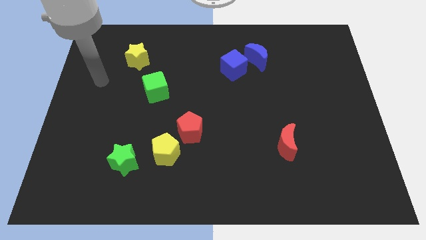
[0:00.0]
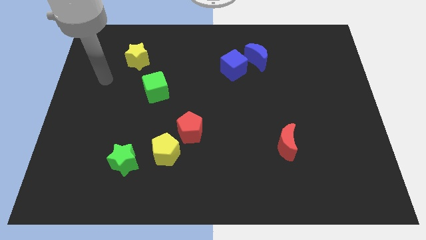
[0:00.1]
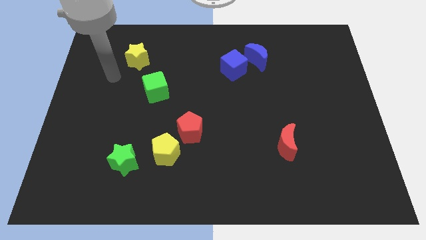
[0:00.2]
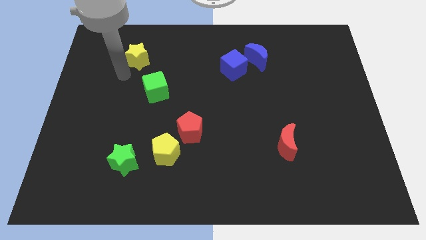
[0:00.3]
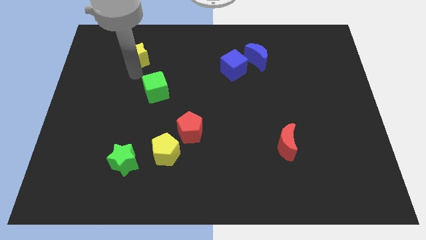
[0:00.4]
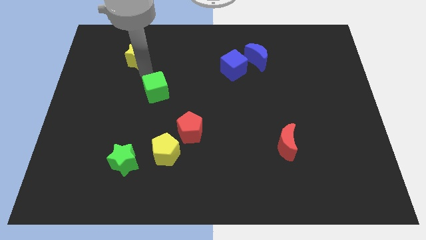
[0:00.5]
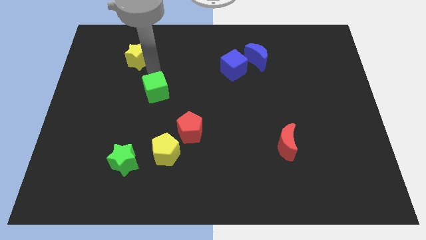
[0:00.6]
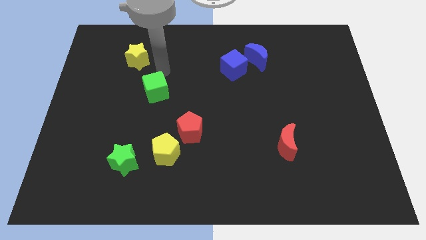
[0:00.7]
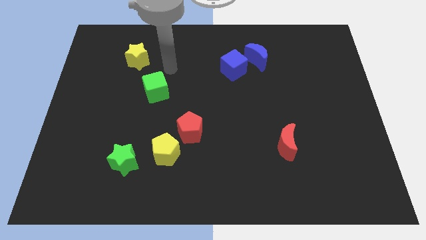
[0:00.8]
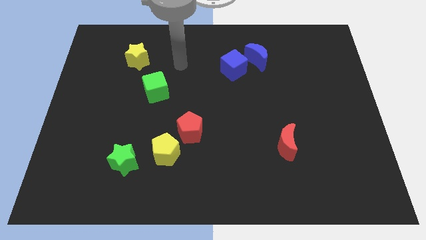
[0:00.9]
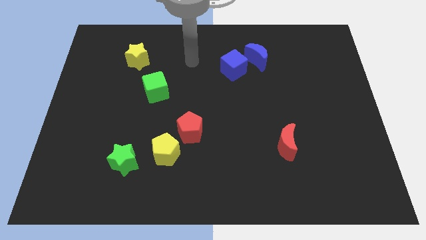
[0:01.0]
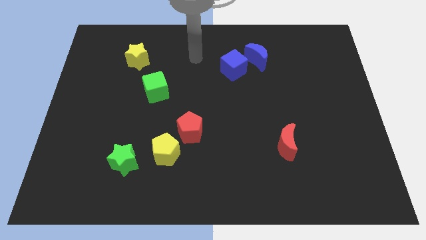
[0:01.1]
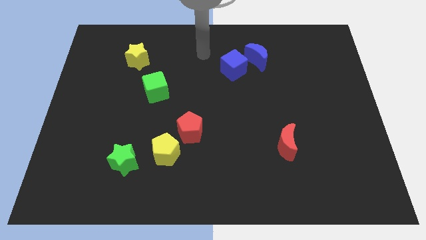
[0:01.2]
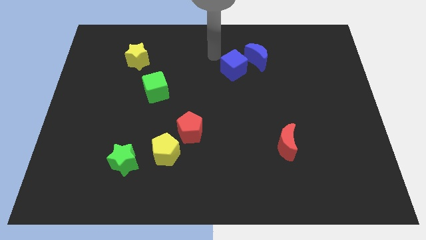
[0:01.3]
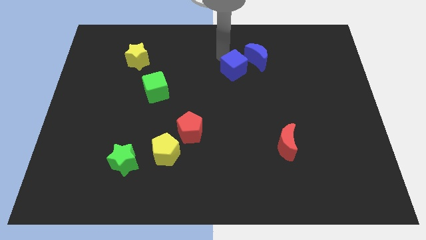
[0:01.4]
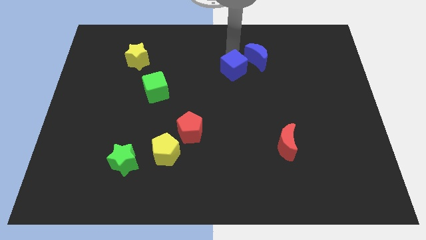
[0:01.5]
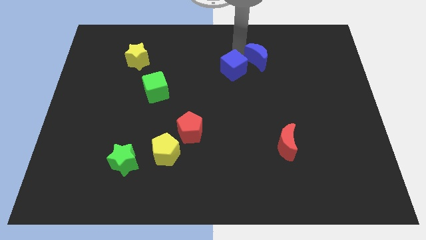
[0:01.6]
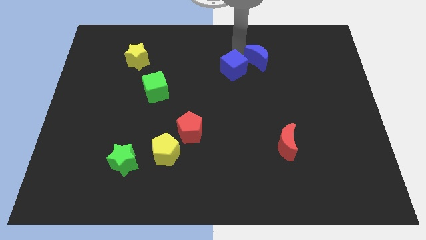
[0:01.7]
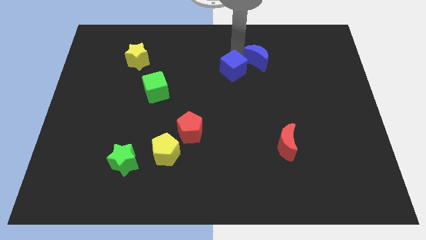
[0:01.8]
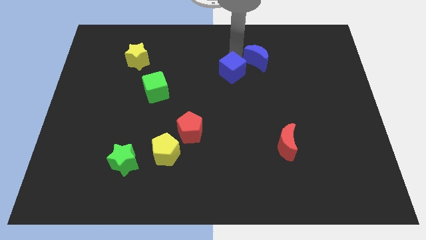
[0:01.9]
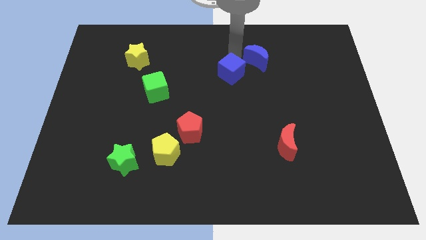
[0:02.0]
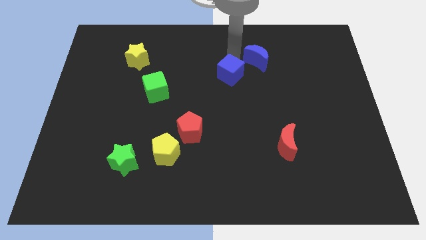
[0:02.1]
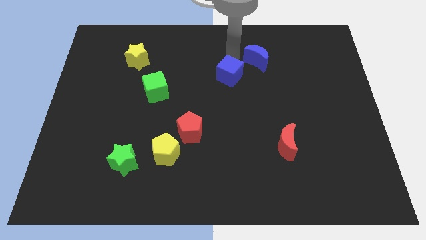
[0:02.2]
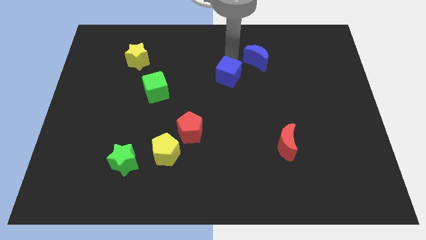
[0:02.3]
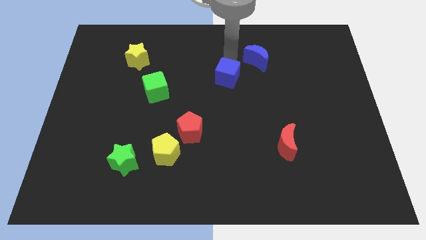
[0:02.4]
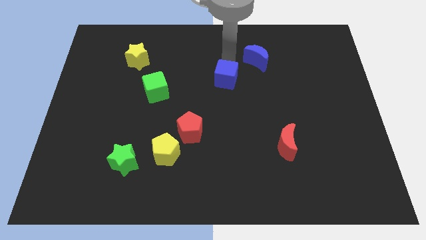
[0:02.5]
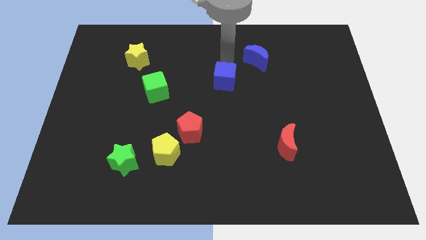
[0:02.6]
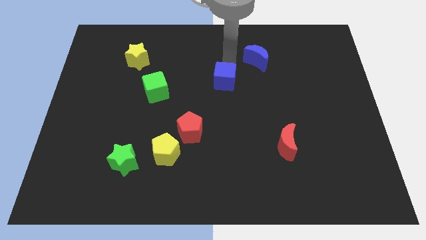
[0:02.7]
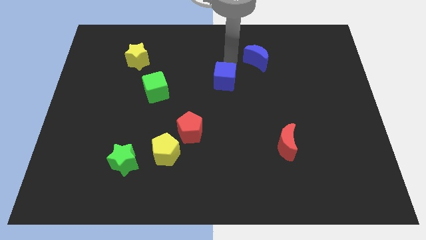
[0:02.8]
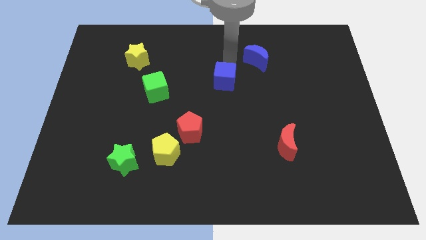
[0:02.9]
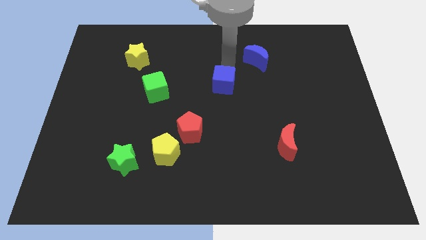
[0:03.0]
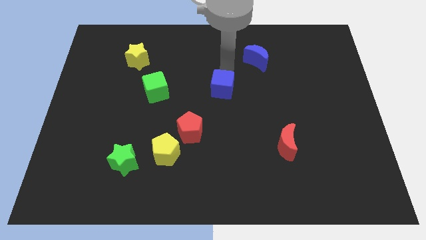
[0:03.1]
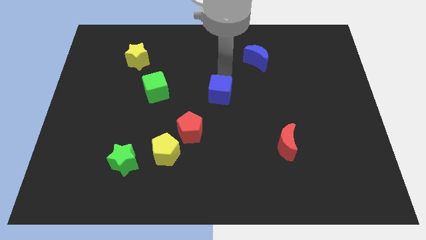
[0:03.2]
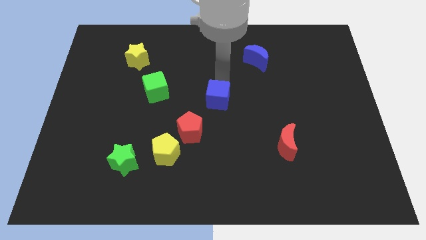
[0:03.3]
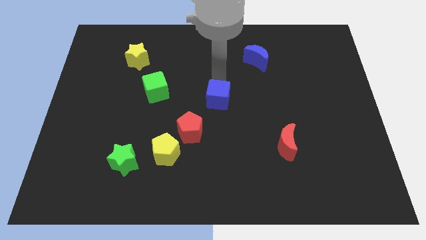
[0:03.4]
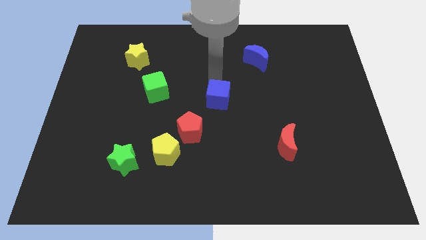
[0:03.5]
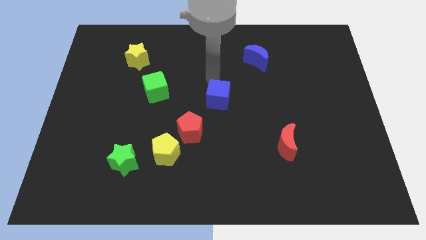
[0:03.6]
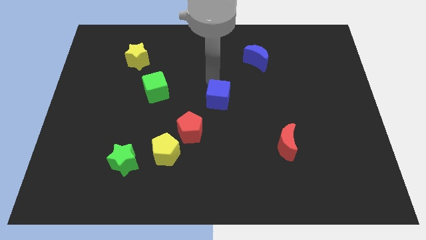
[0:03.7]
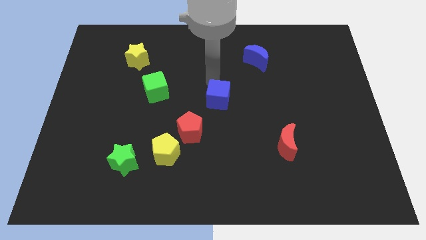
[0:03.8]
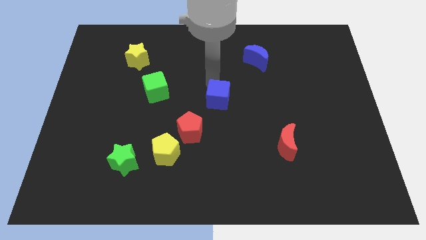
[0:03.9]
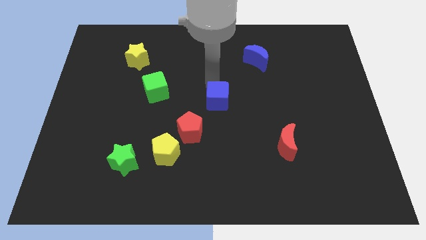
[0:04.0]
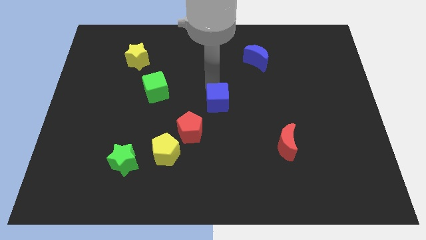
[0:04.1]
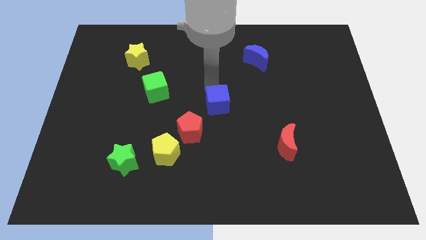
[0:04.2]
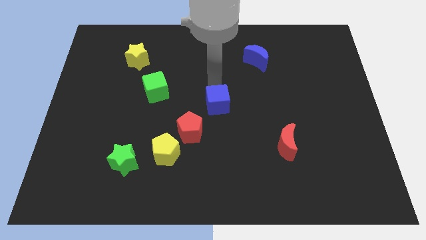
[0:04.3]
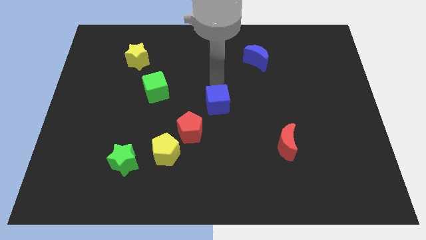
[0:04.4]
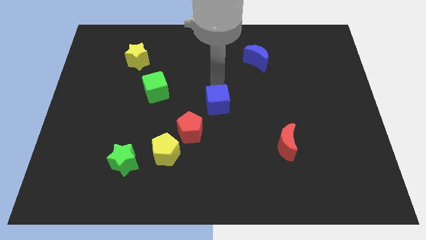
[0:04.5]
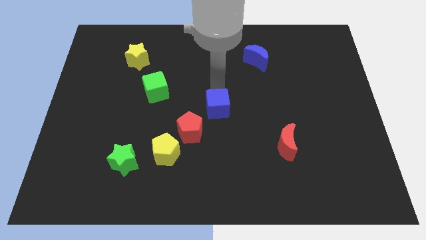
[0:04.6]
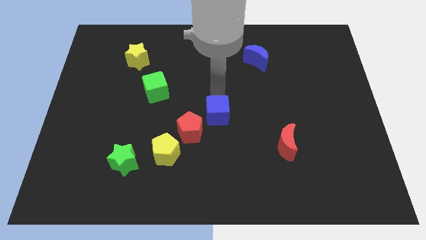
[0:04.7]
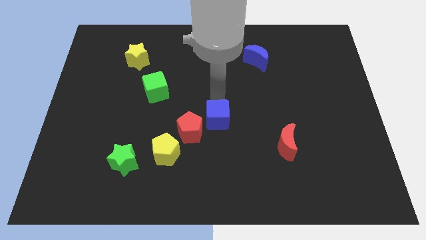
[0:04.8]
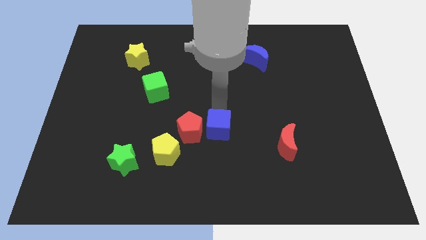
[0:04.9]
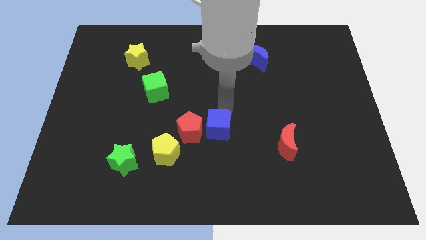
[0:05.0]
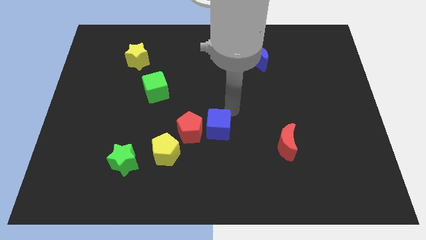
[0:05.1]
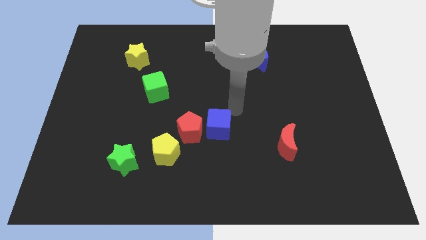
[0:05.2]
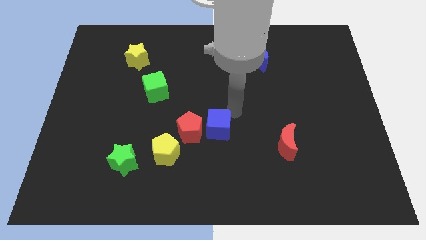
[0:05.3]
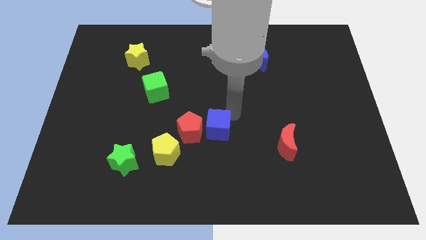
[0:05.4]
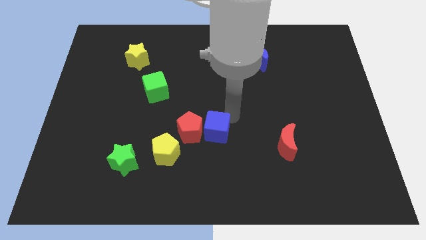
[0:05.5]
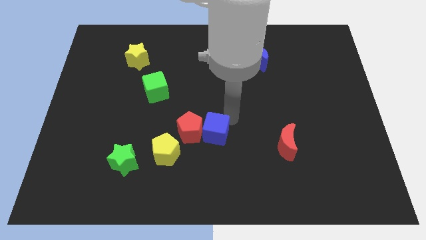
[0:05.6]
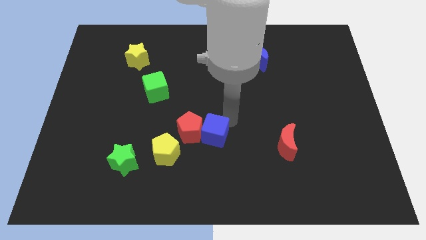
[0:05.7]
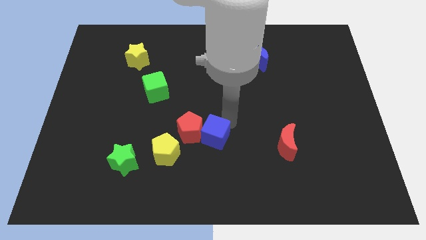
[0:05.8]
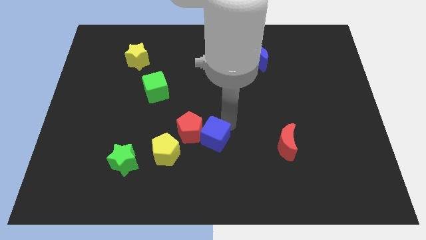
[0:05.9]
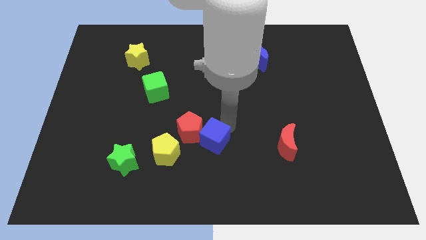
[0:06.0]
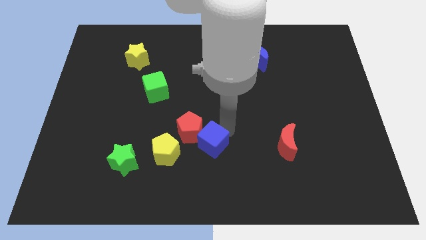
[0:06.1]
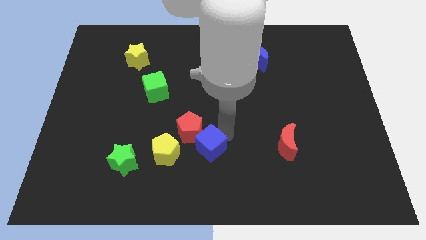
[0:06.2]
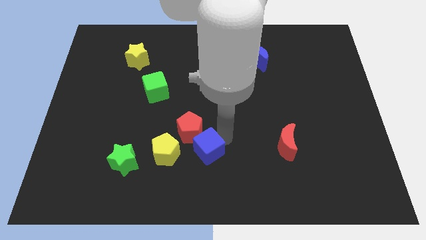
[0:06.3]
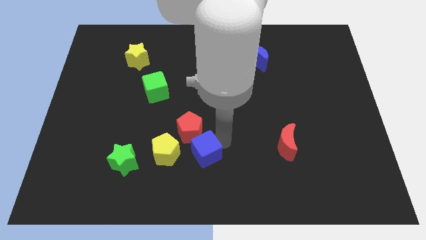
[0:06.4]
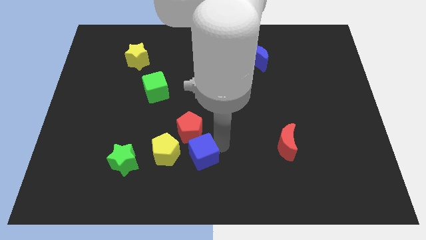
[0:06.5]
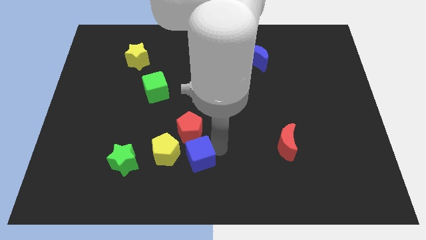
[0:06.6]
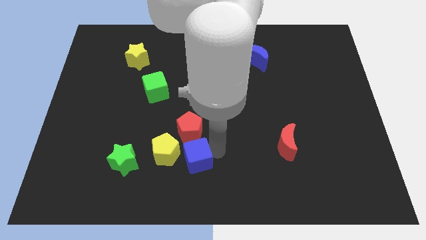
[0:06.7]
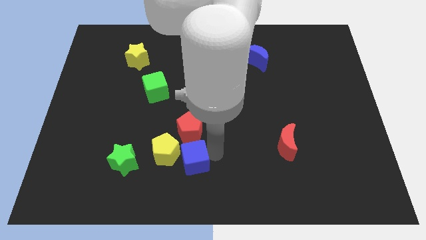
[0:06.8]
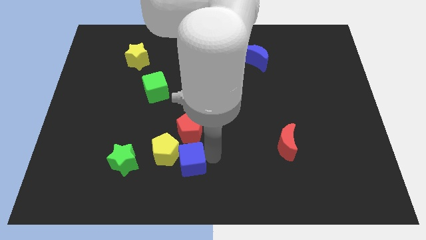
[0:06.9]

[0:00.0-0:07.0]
put the blue cube to the yellow pentagon
